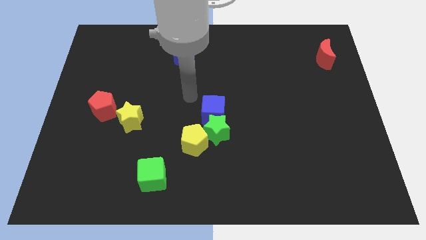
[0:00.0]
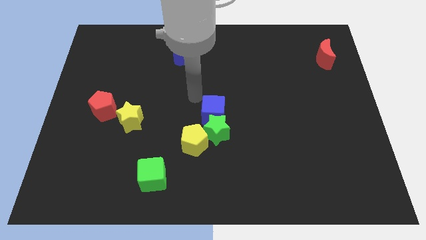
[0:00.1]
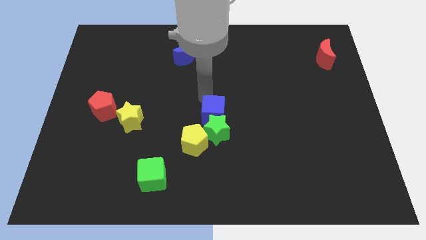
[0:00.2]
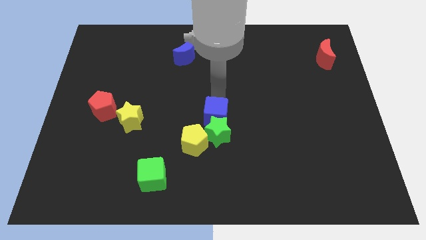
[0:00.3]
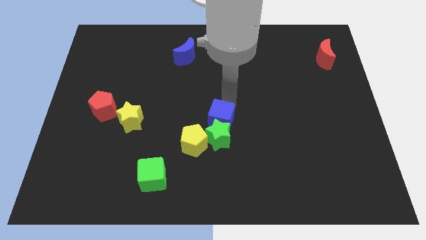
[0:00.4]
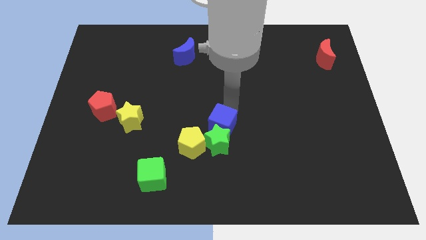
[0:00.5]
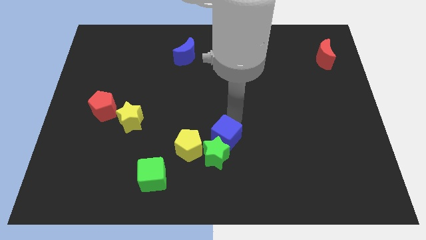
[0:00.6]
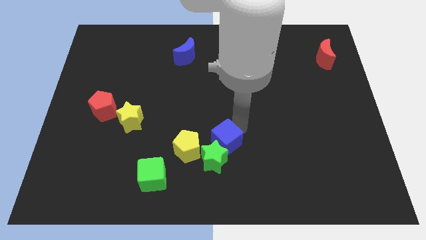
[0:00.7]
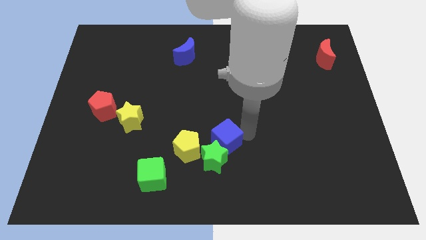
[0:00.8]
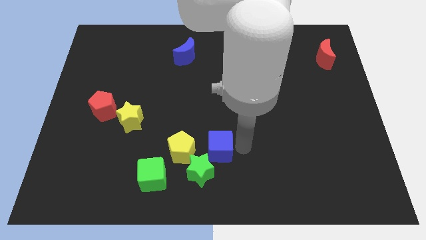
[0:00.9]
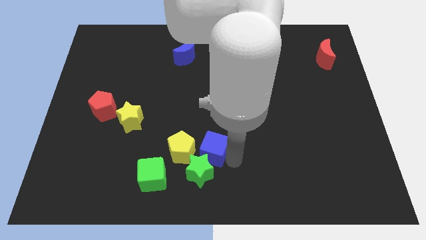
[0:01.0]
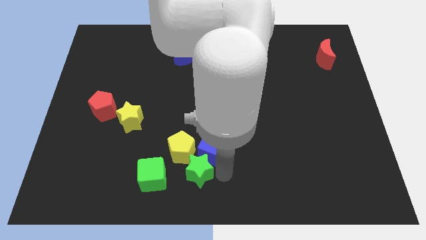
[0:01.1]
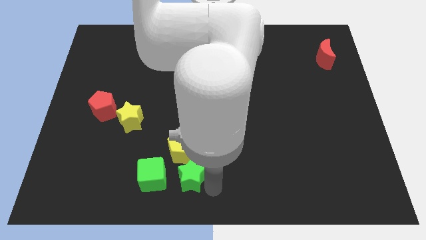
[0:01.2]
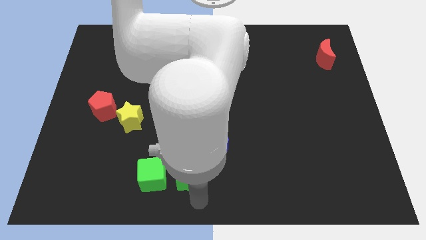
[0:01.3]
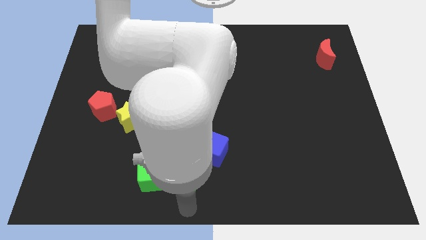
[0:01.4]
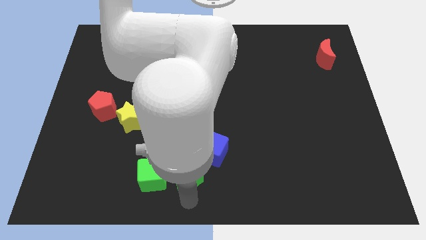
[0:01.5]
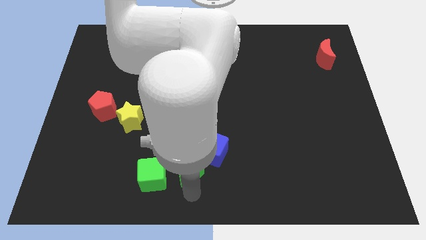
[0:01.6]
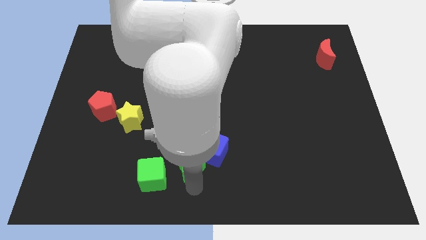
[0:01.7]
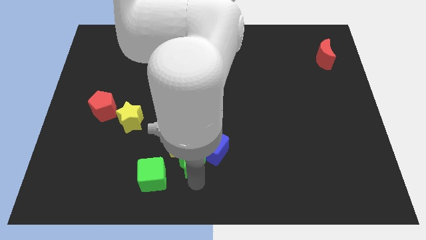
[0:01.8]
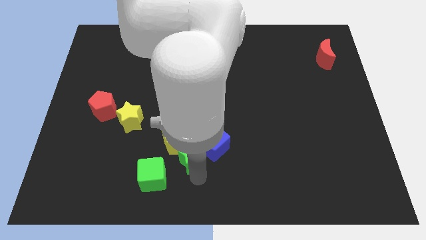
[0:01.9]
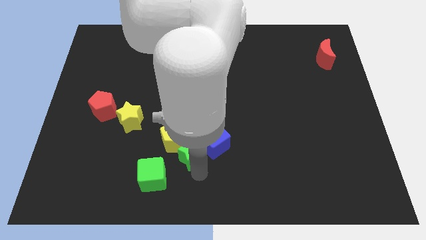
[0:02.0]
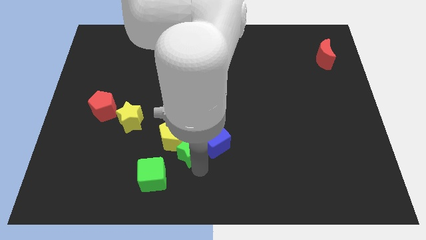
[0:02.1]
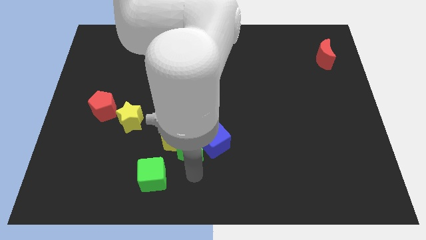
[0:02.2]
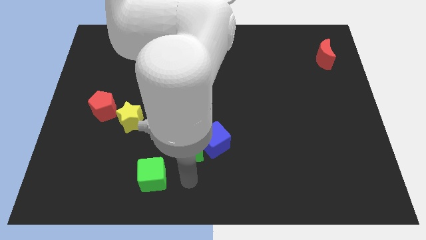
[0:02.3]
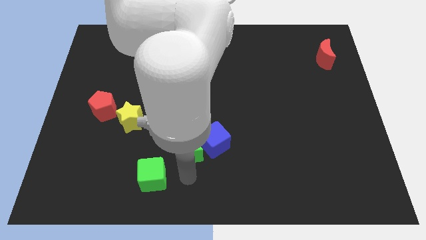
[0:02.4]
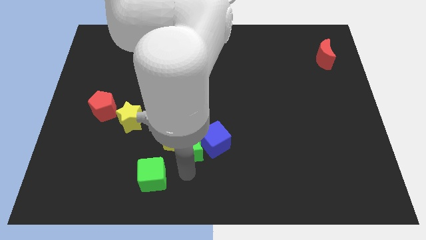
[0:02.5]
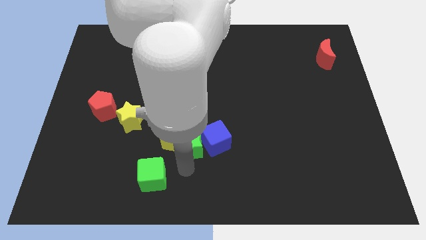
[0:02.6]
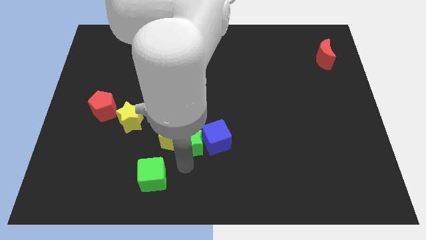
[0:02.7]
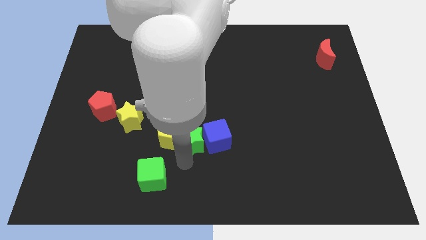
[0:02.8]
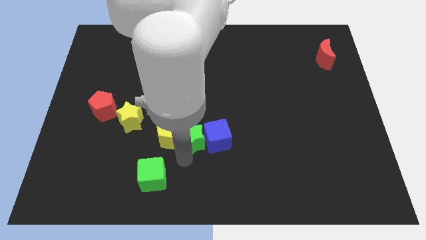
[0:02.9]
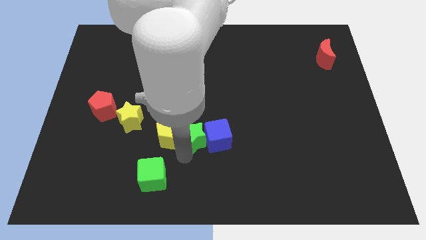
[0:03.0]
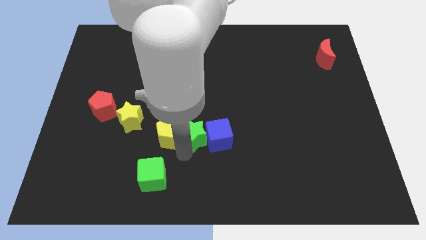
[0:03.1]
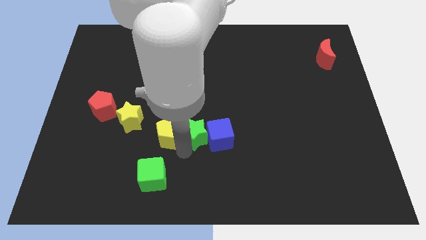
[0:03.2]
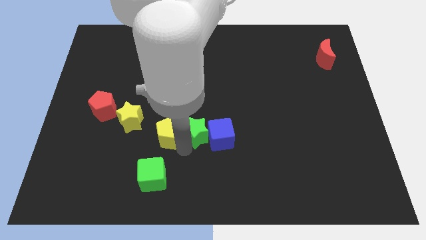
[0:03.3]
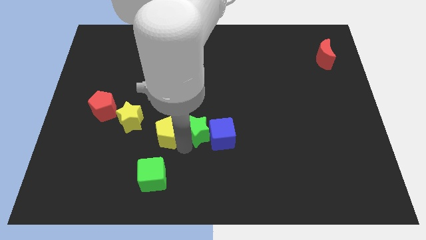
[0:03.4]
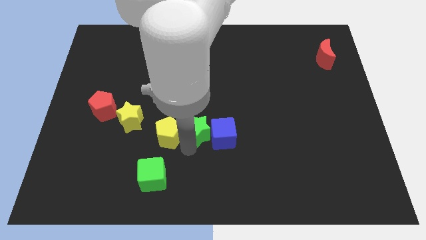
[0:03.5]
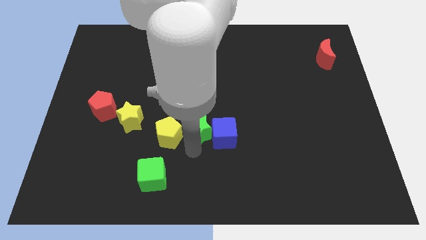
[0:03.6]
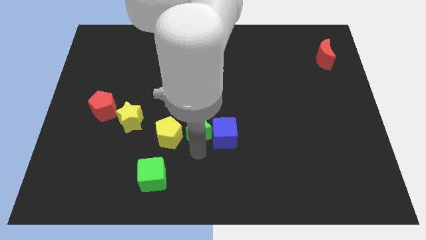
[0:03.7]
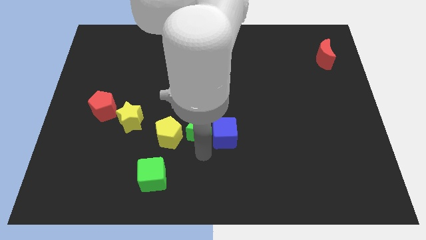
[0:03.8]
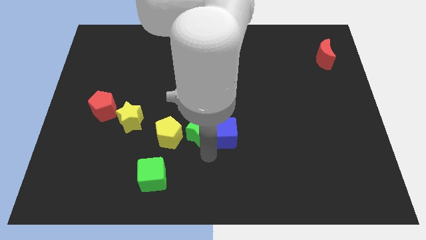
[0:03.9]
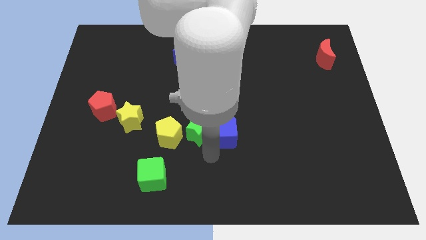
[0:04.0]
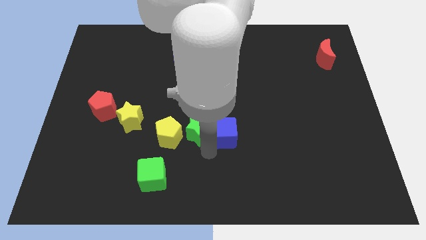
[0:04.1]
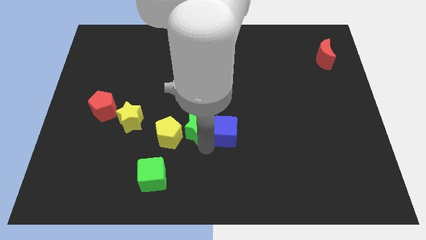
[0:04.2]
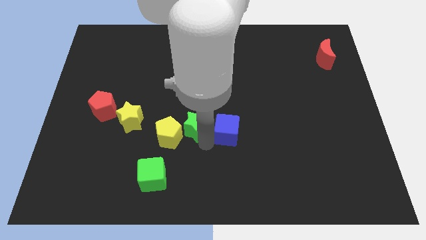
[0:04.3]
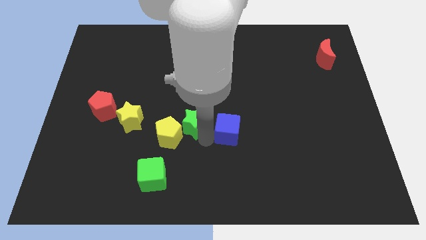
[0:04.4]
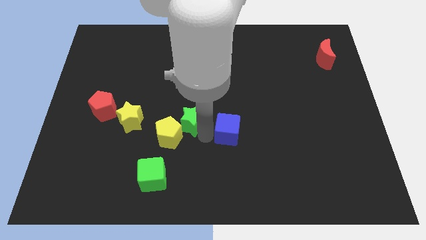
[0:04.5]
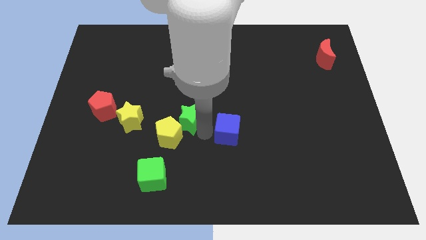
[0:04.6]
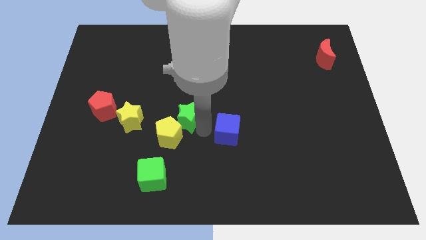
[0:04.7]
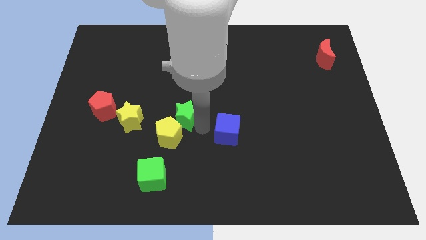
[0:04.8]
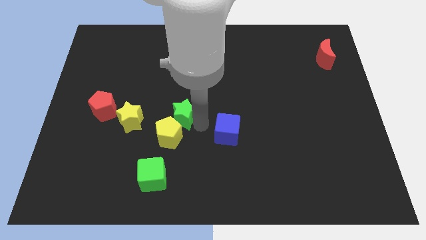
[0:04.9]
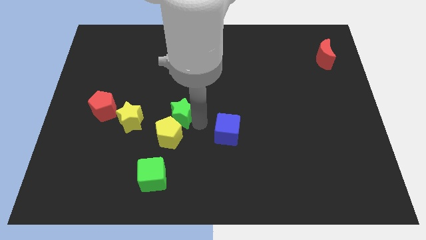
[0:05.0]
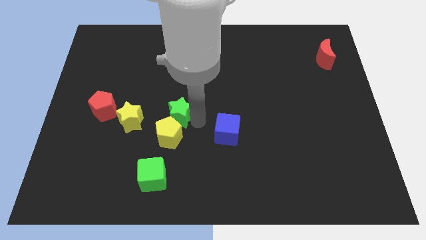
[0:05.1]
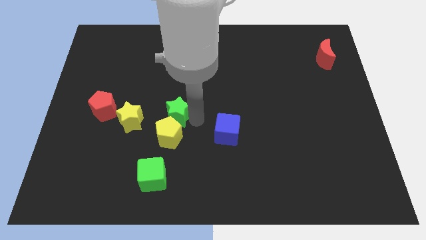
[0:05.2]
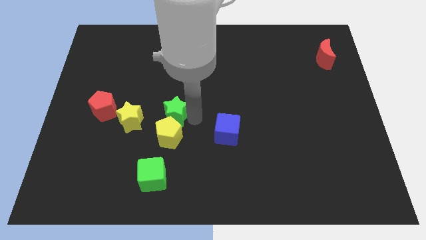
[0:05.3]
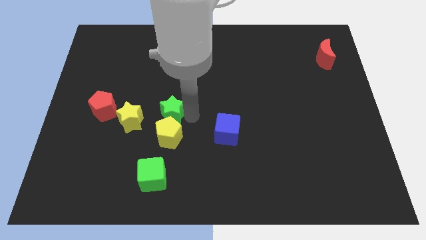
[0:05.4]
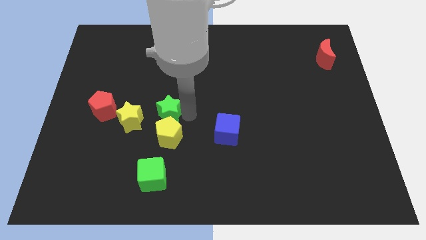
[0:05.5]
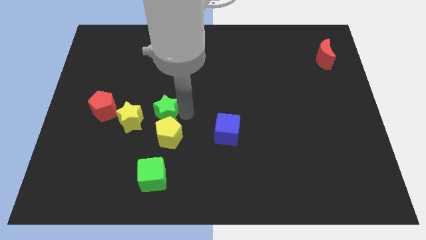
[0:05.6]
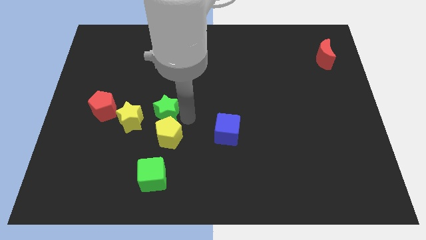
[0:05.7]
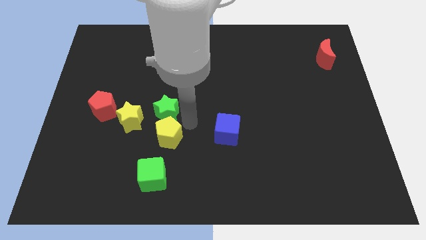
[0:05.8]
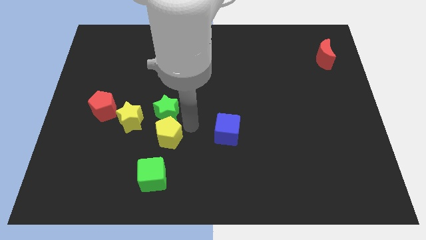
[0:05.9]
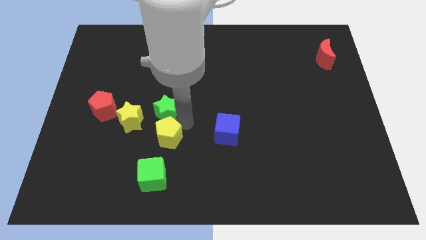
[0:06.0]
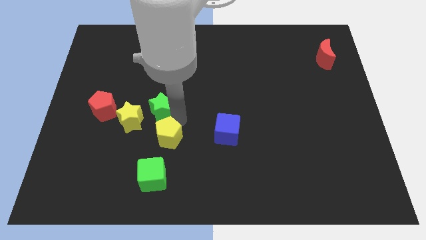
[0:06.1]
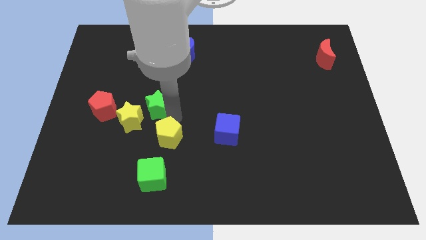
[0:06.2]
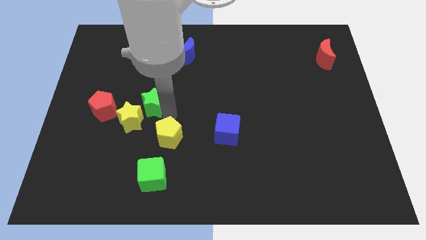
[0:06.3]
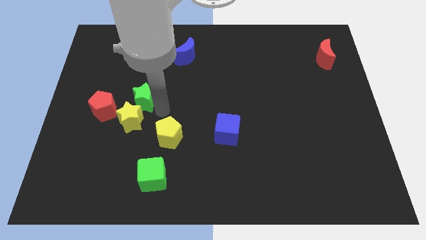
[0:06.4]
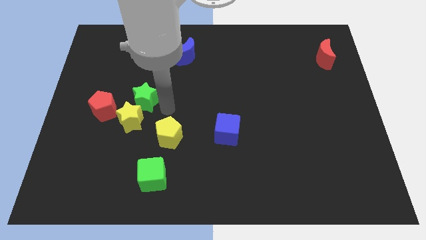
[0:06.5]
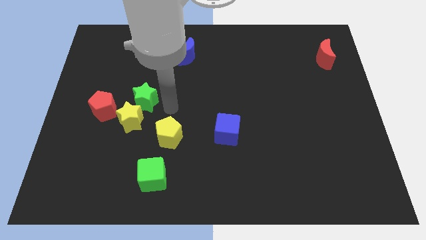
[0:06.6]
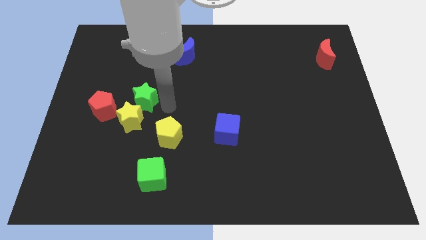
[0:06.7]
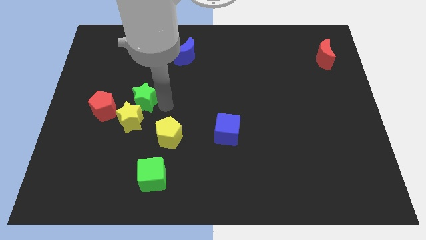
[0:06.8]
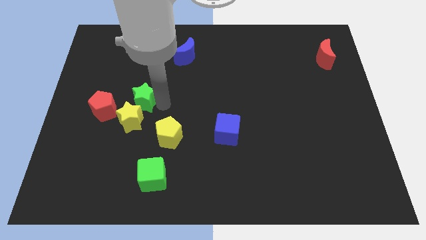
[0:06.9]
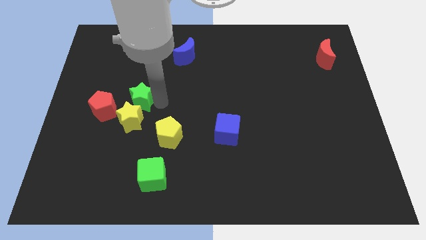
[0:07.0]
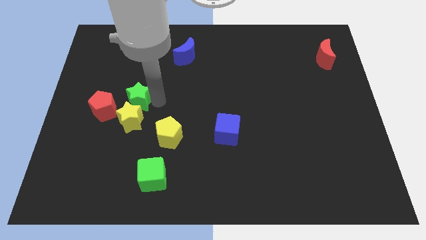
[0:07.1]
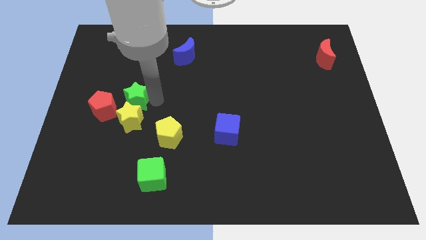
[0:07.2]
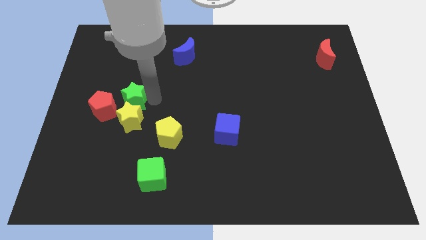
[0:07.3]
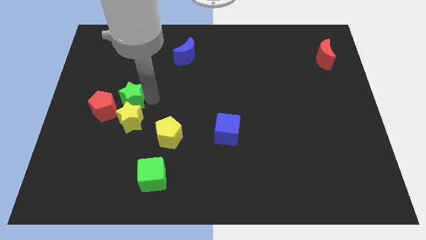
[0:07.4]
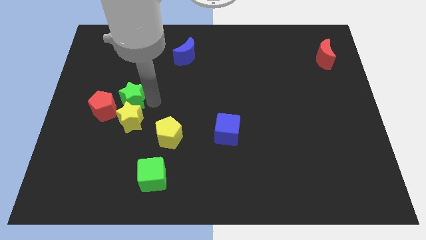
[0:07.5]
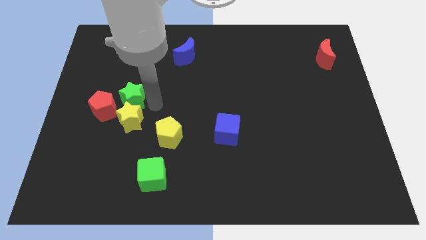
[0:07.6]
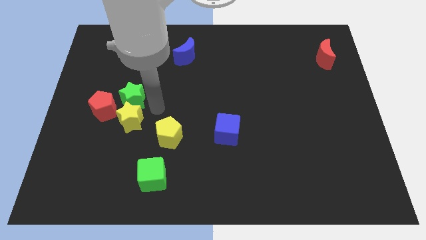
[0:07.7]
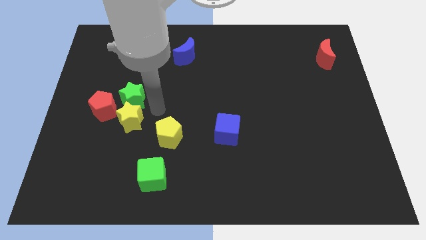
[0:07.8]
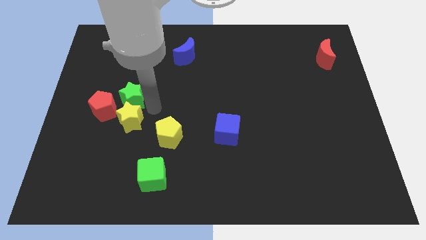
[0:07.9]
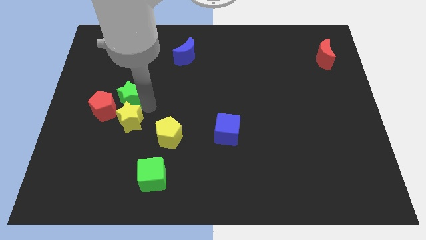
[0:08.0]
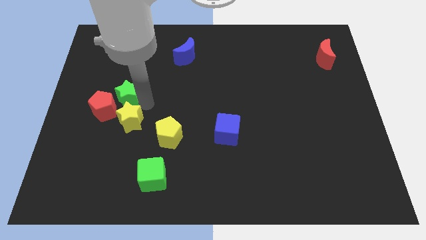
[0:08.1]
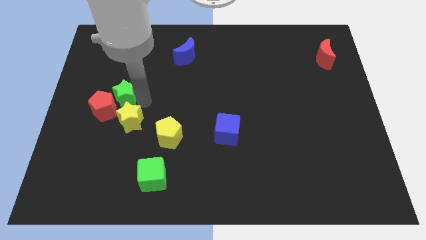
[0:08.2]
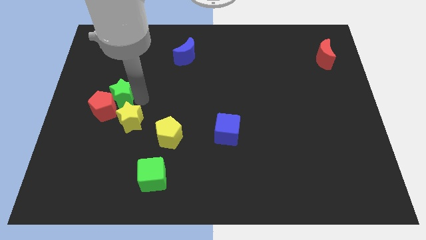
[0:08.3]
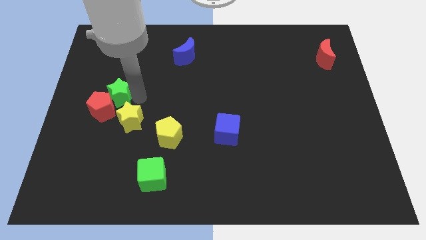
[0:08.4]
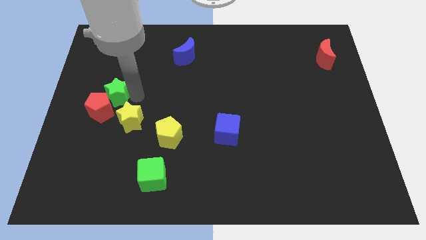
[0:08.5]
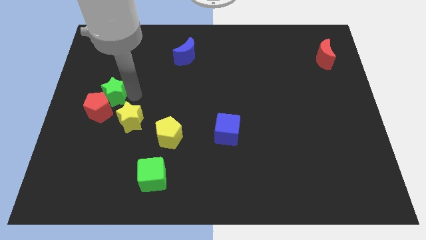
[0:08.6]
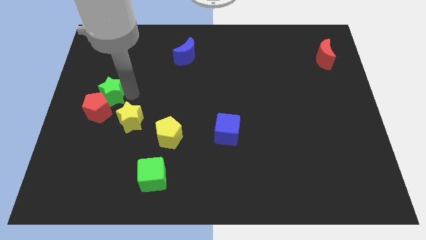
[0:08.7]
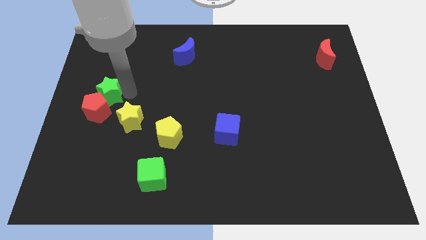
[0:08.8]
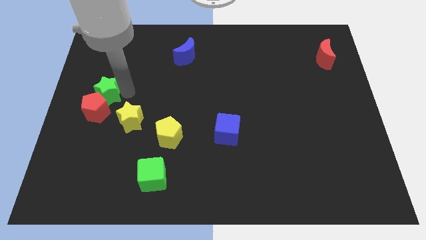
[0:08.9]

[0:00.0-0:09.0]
put the green star to the center left
